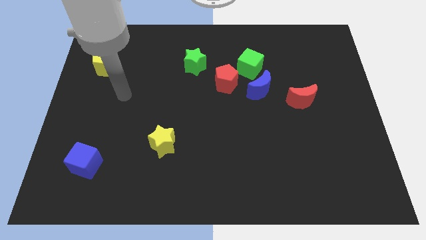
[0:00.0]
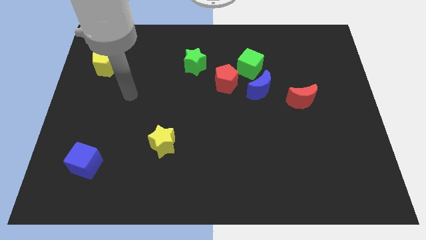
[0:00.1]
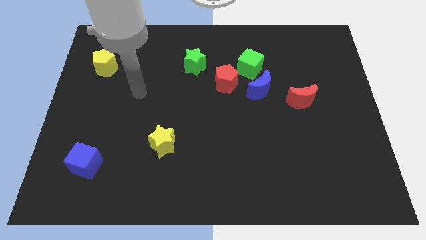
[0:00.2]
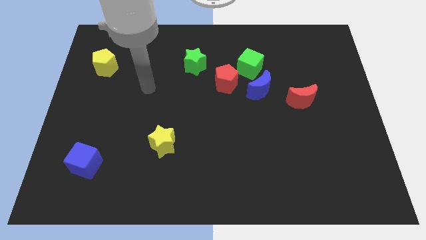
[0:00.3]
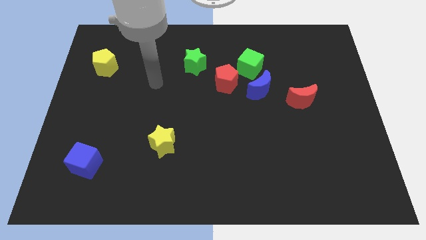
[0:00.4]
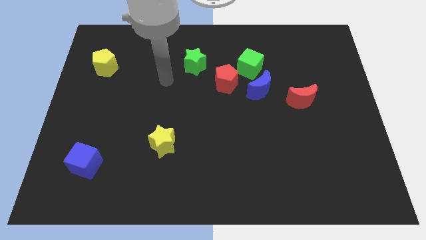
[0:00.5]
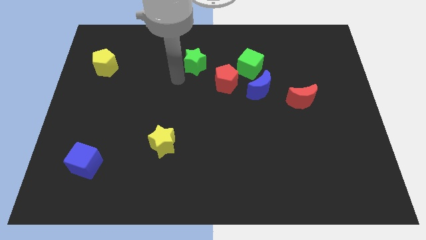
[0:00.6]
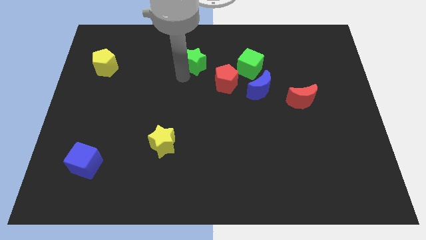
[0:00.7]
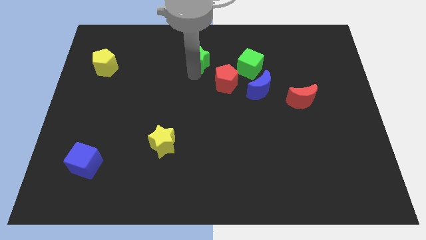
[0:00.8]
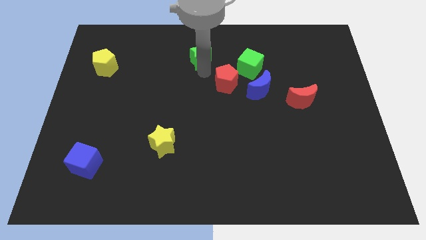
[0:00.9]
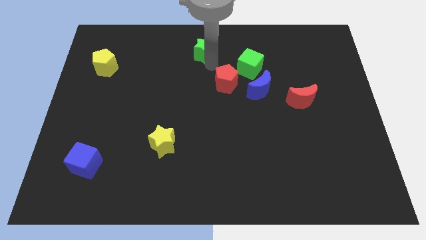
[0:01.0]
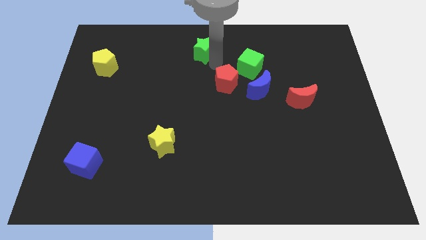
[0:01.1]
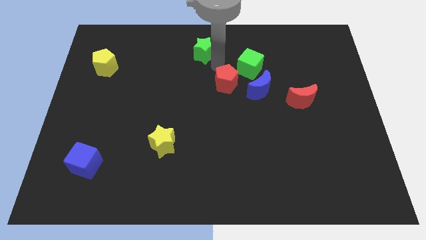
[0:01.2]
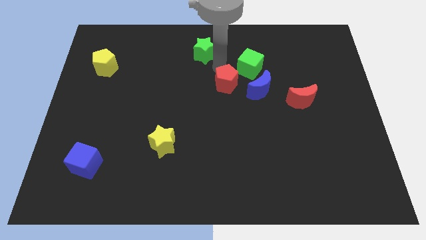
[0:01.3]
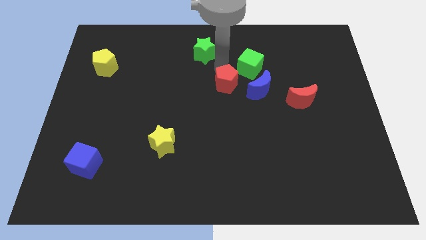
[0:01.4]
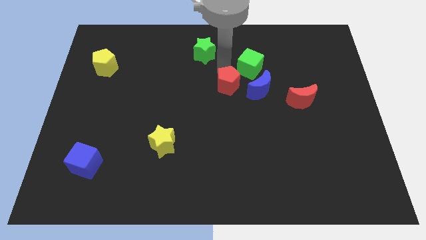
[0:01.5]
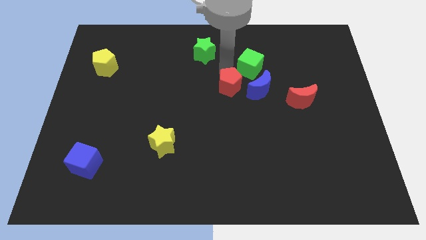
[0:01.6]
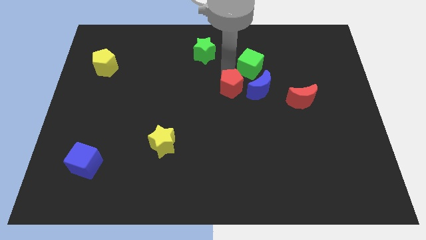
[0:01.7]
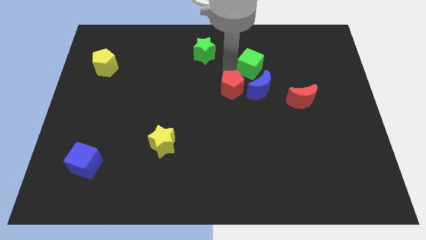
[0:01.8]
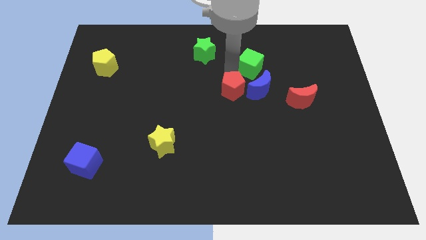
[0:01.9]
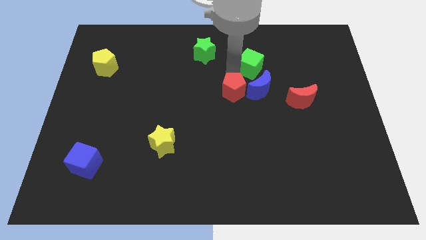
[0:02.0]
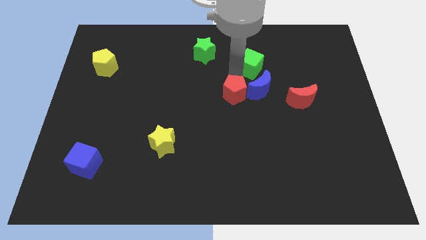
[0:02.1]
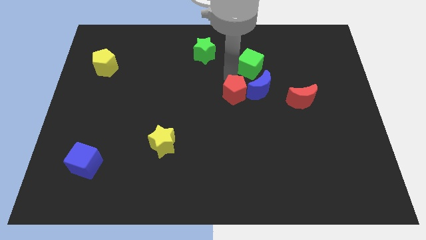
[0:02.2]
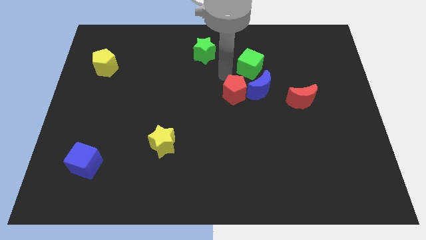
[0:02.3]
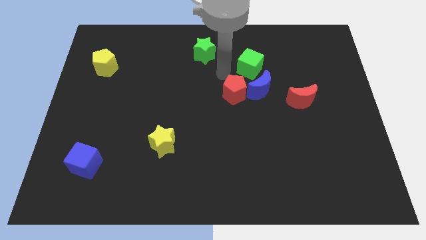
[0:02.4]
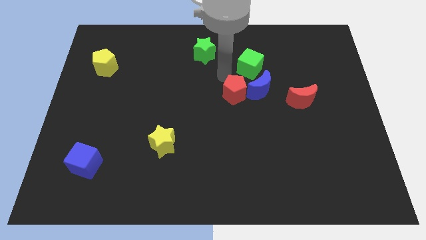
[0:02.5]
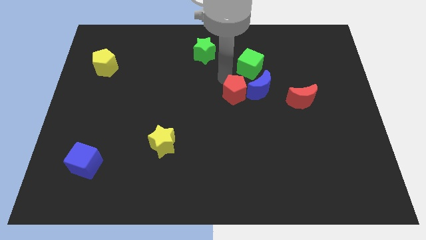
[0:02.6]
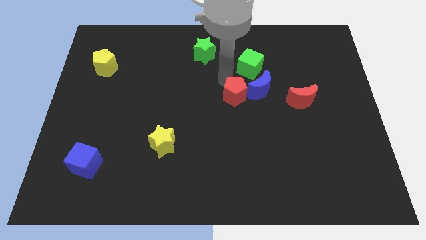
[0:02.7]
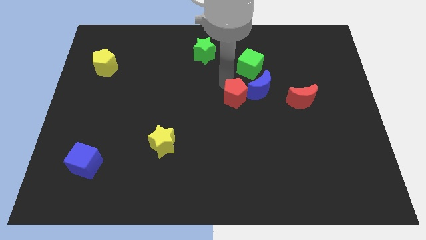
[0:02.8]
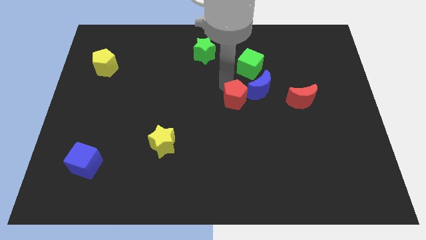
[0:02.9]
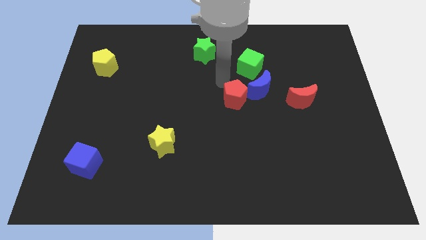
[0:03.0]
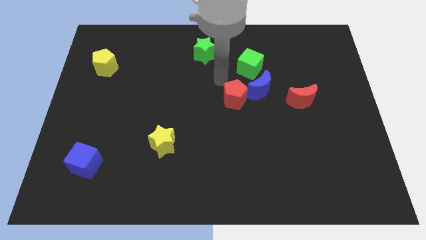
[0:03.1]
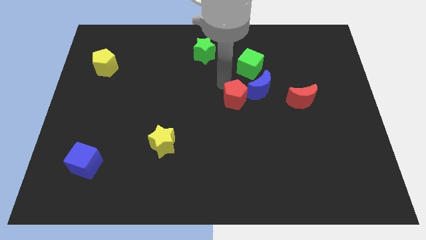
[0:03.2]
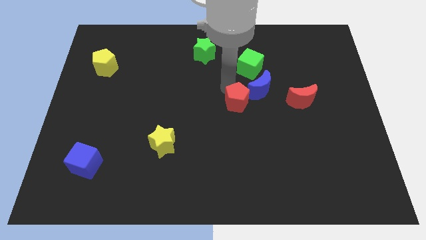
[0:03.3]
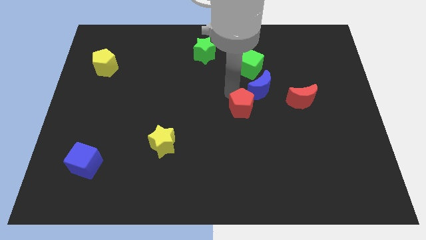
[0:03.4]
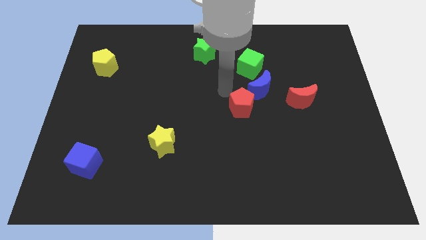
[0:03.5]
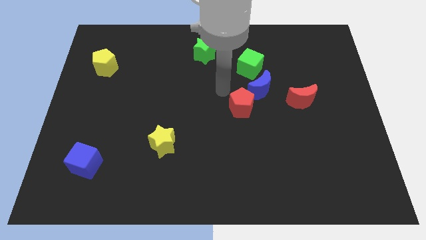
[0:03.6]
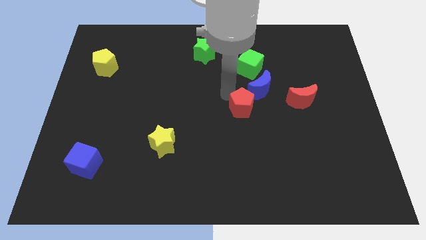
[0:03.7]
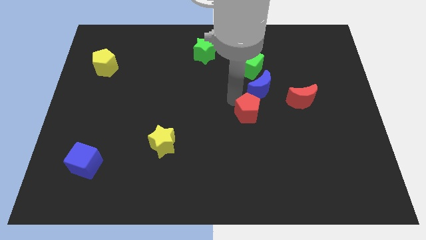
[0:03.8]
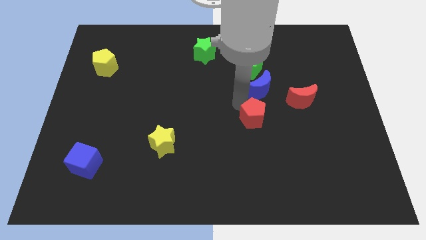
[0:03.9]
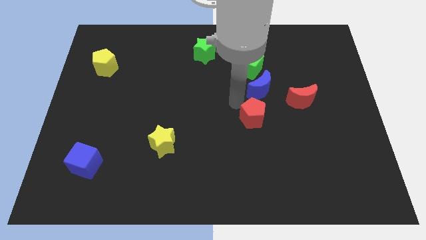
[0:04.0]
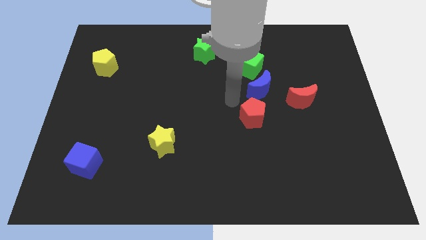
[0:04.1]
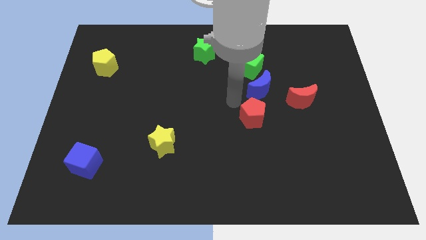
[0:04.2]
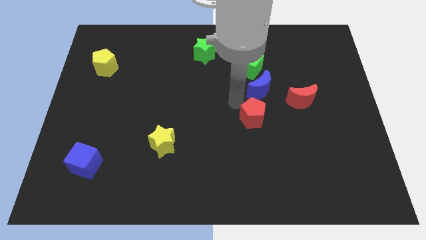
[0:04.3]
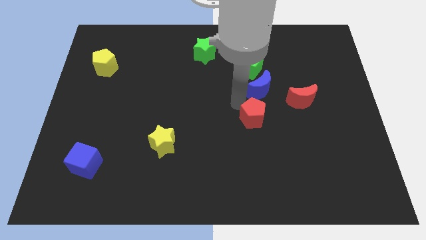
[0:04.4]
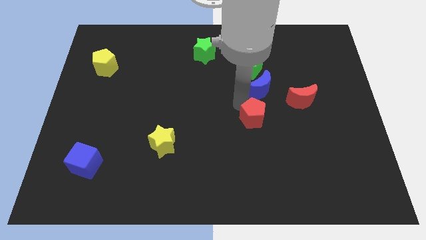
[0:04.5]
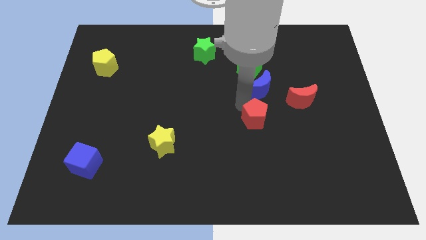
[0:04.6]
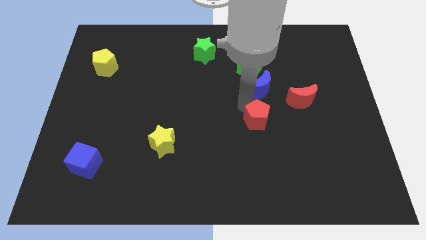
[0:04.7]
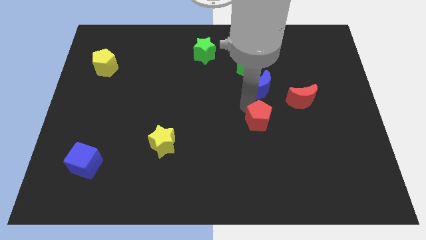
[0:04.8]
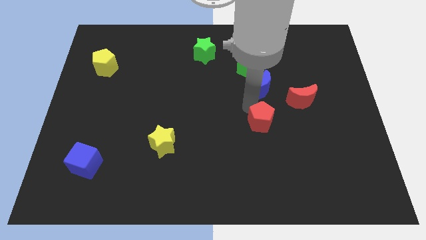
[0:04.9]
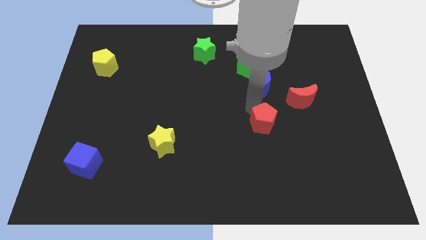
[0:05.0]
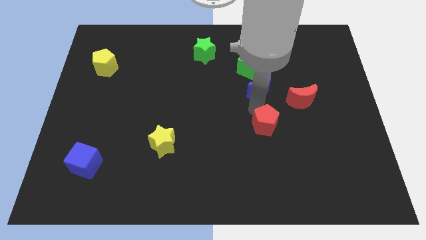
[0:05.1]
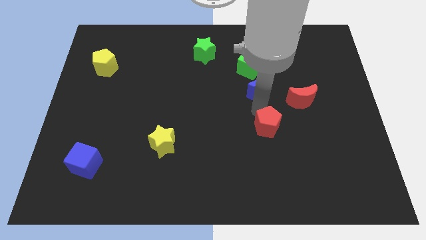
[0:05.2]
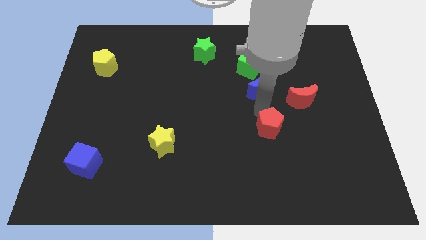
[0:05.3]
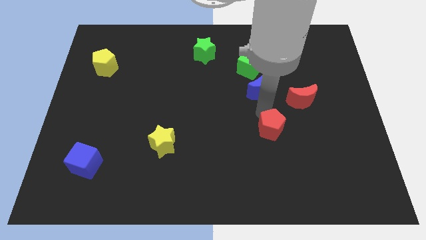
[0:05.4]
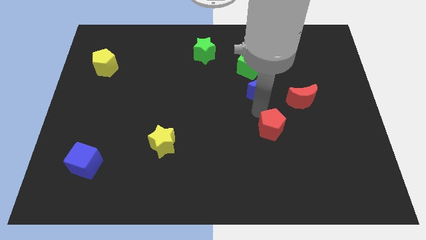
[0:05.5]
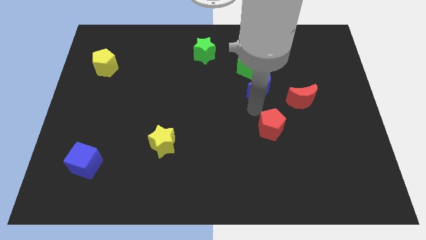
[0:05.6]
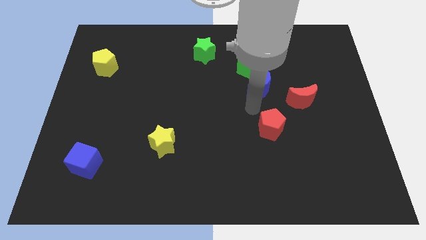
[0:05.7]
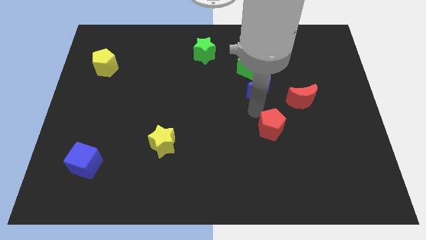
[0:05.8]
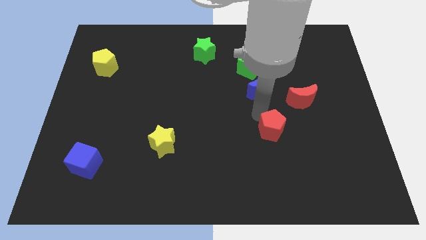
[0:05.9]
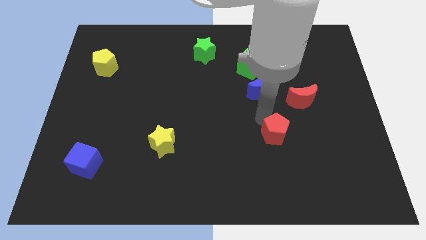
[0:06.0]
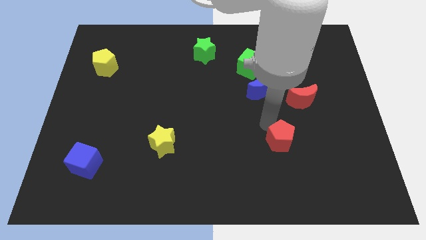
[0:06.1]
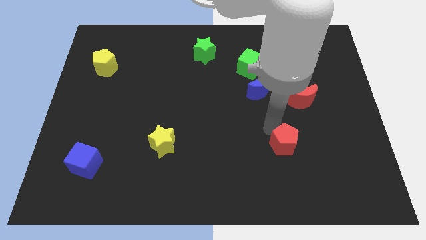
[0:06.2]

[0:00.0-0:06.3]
push the red pentagon down and right diagonally

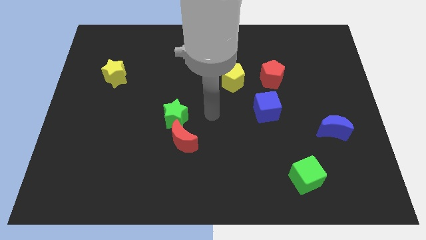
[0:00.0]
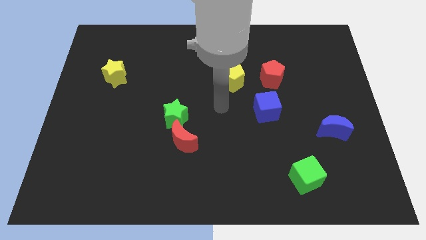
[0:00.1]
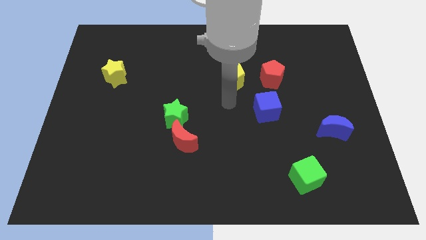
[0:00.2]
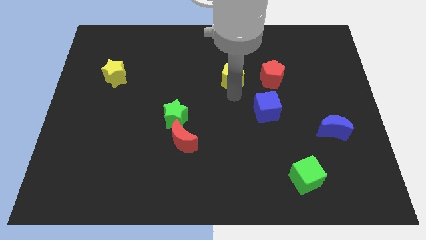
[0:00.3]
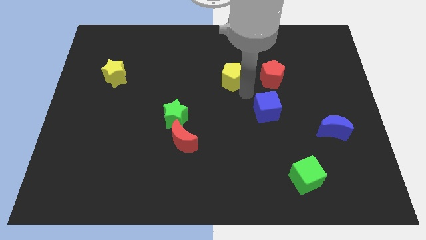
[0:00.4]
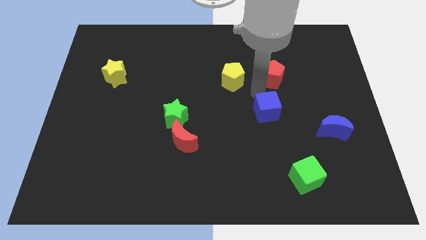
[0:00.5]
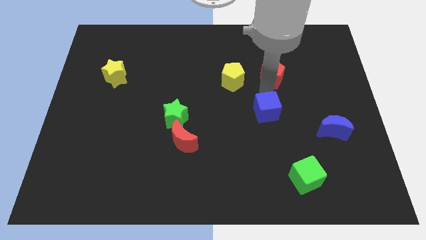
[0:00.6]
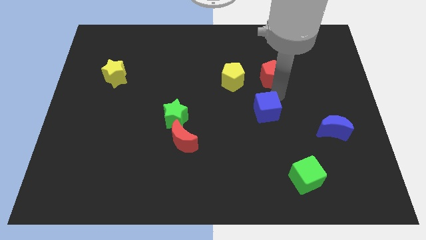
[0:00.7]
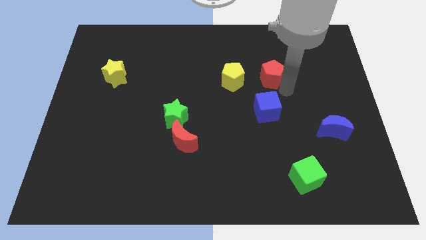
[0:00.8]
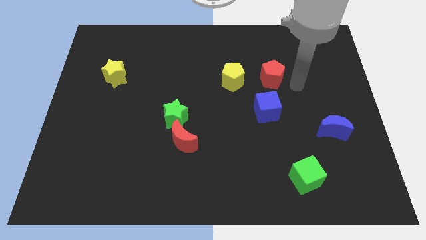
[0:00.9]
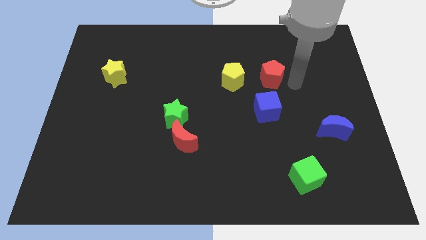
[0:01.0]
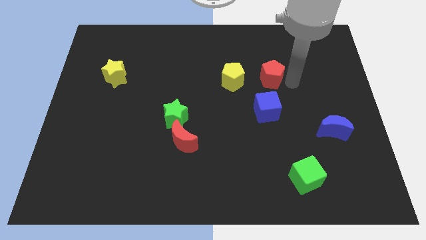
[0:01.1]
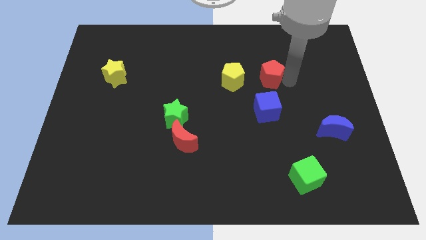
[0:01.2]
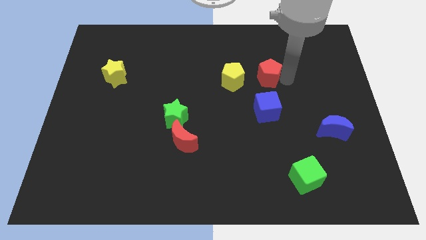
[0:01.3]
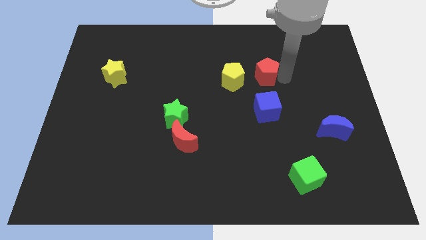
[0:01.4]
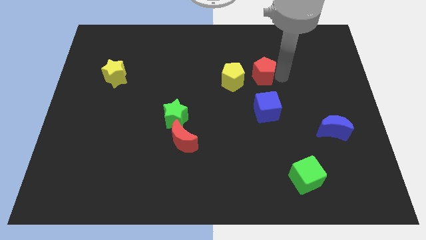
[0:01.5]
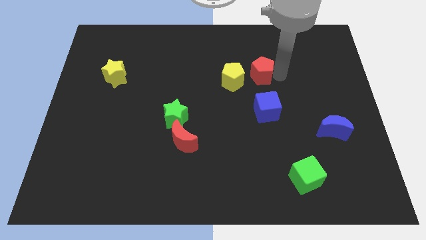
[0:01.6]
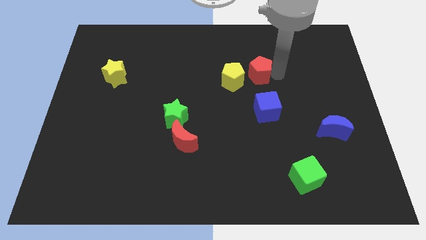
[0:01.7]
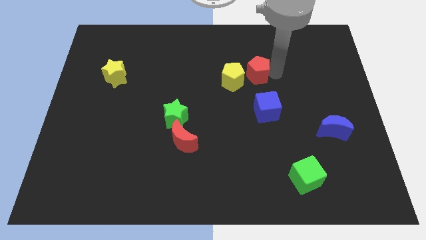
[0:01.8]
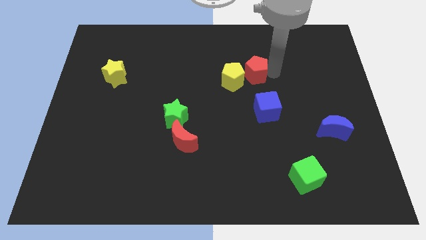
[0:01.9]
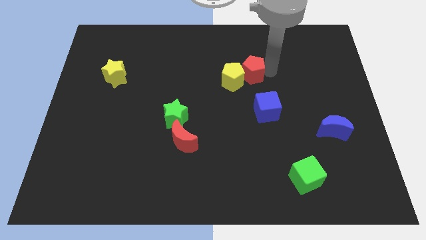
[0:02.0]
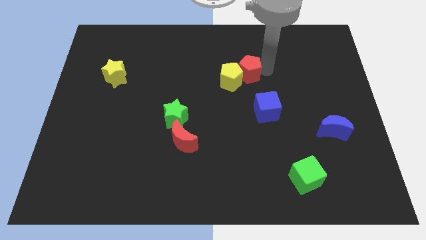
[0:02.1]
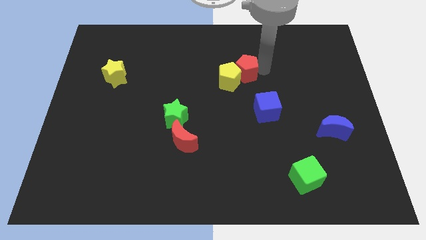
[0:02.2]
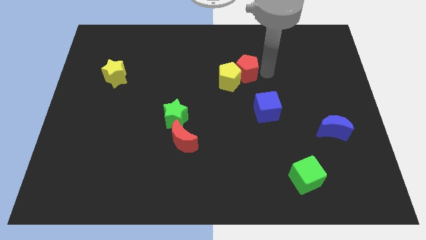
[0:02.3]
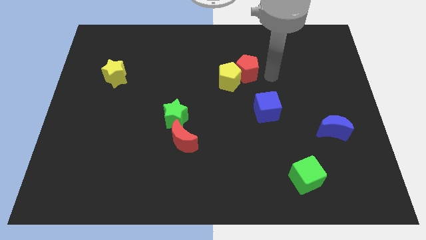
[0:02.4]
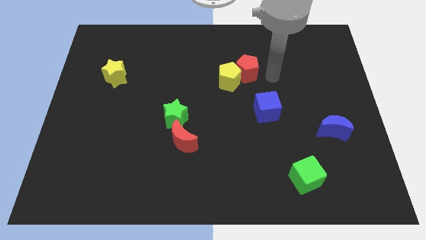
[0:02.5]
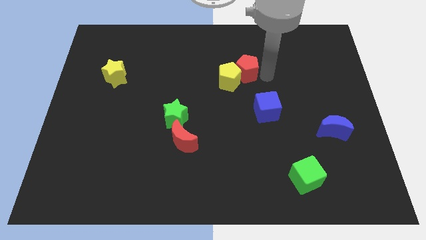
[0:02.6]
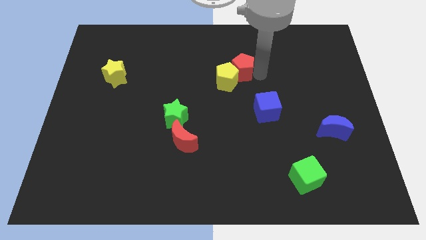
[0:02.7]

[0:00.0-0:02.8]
move the red pentagon to the left a bit
